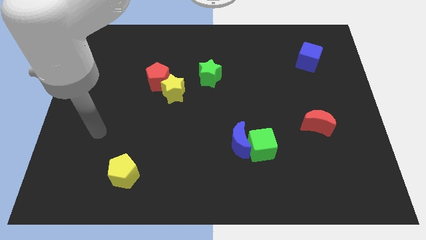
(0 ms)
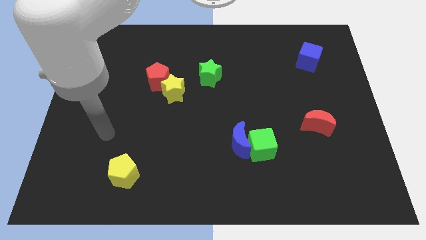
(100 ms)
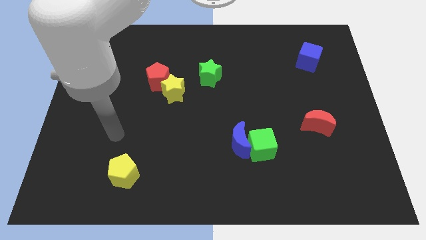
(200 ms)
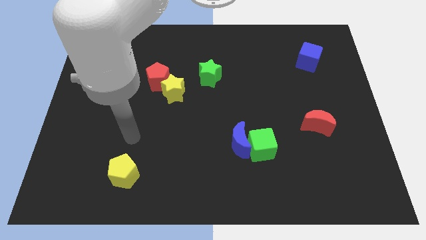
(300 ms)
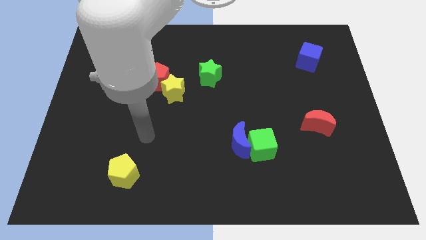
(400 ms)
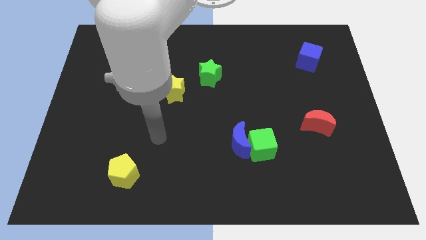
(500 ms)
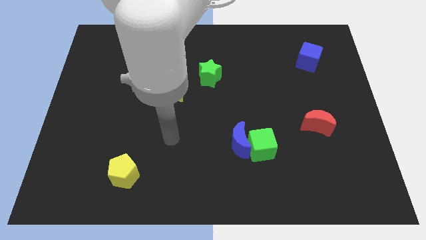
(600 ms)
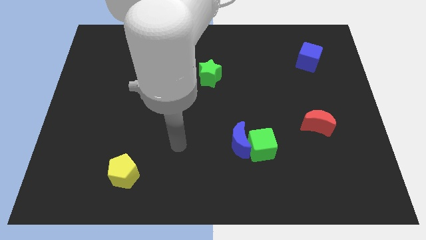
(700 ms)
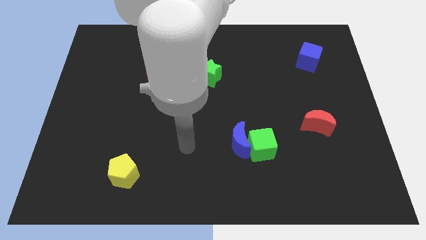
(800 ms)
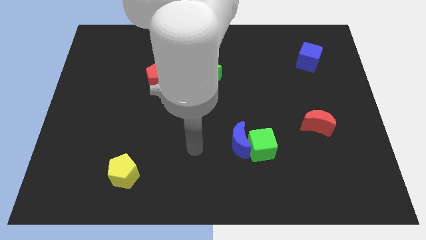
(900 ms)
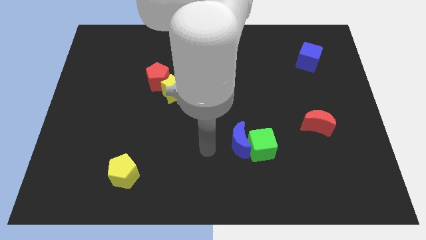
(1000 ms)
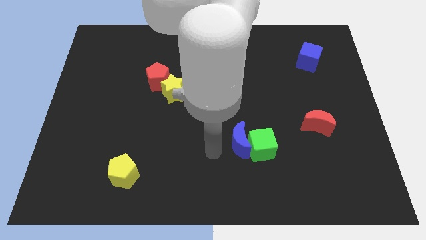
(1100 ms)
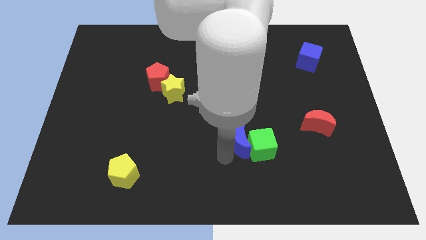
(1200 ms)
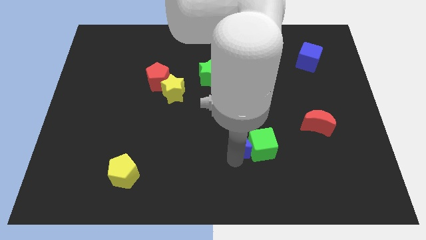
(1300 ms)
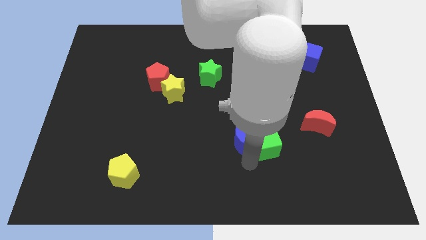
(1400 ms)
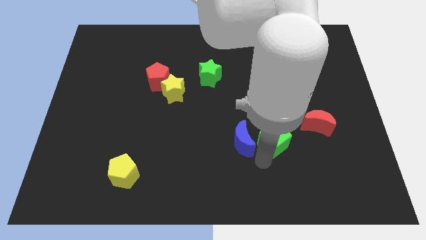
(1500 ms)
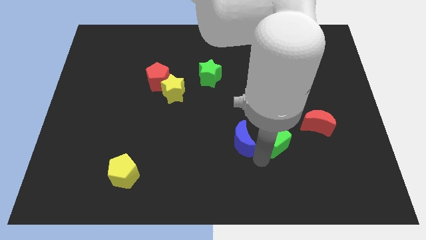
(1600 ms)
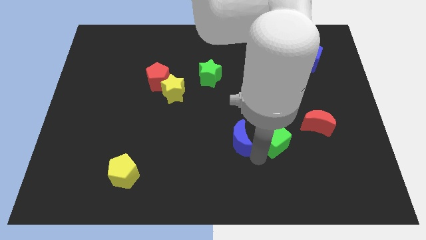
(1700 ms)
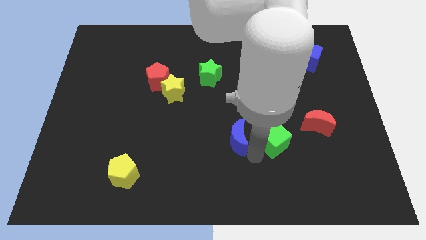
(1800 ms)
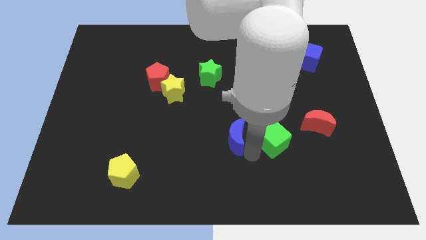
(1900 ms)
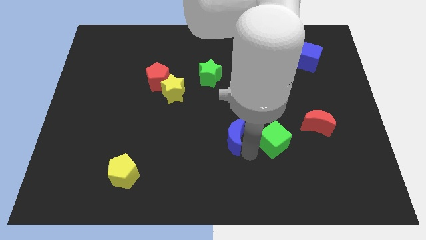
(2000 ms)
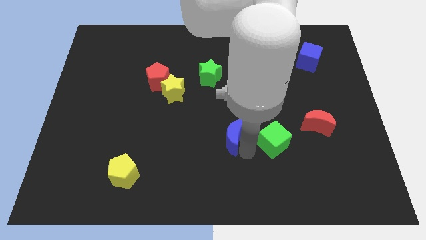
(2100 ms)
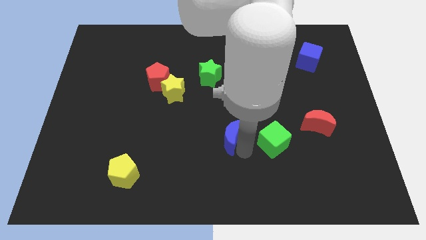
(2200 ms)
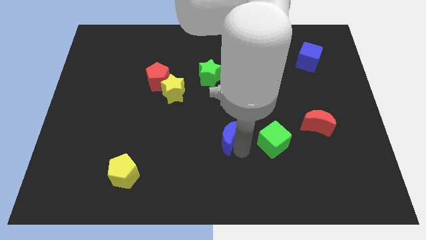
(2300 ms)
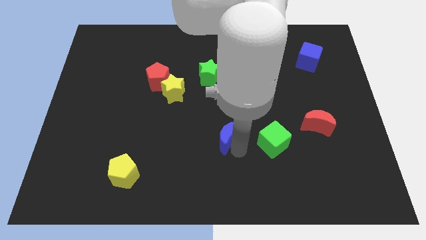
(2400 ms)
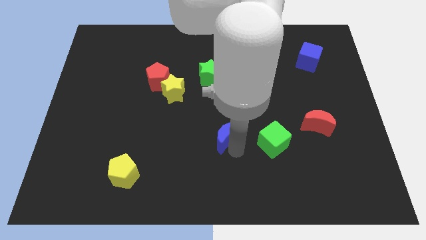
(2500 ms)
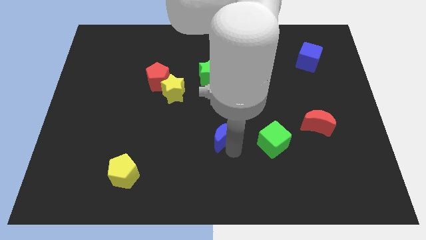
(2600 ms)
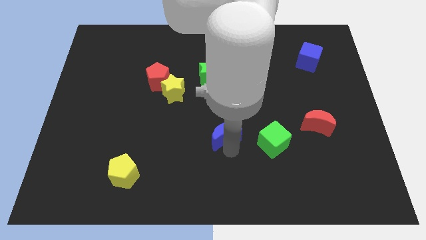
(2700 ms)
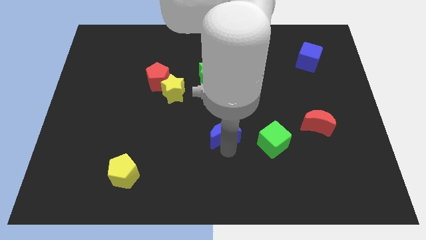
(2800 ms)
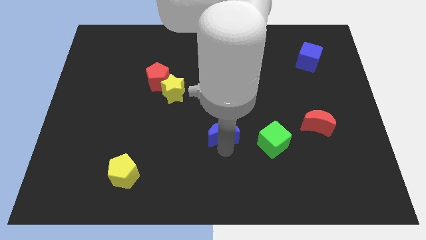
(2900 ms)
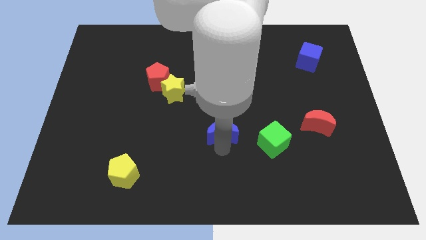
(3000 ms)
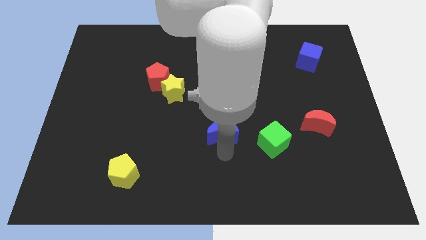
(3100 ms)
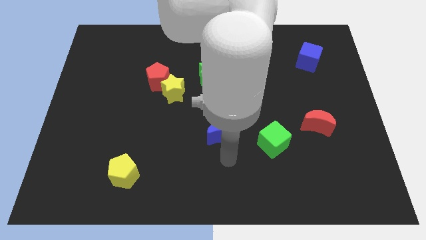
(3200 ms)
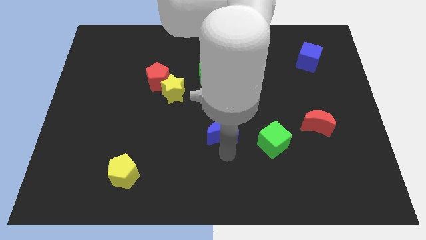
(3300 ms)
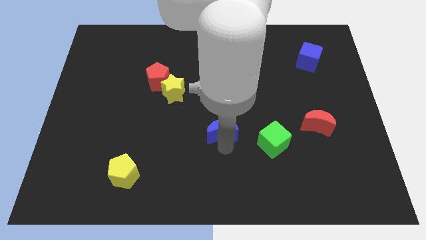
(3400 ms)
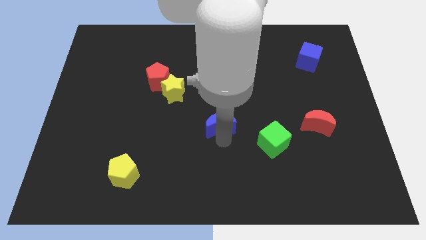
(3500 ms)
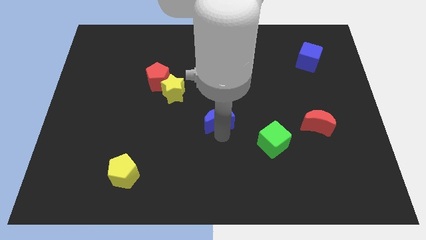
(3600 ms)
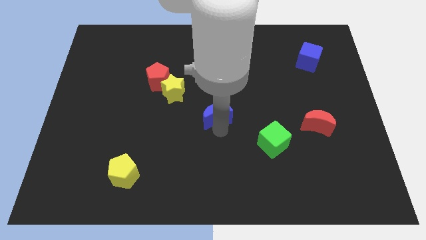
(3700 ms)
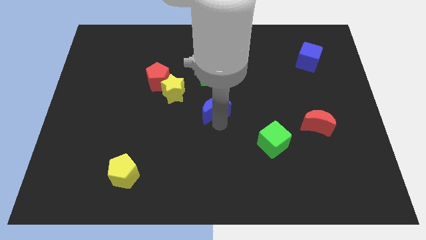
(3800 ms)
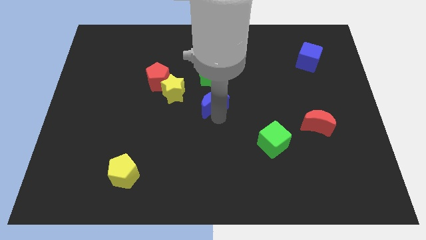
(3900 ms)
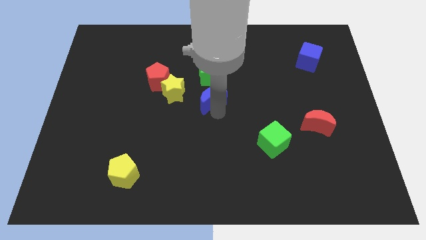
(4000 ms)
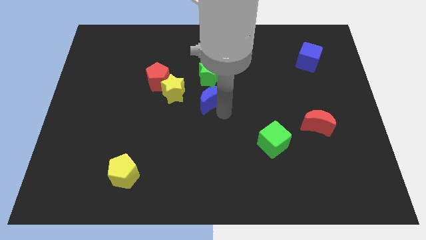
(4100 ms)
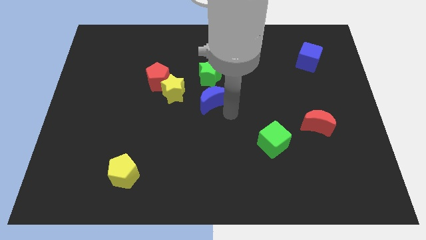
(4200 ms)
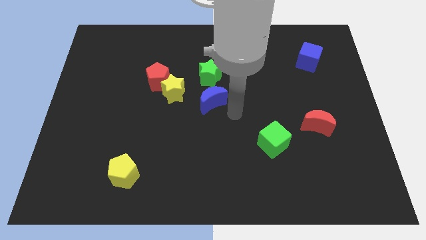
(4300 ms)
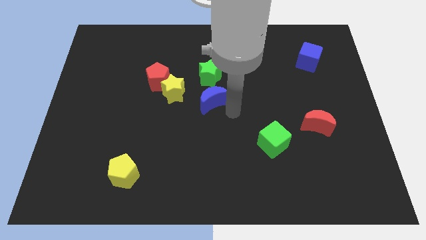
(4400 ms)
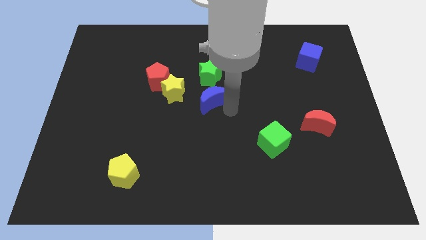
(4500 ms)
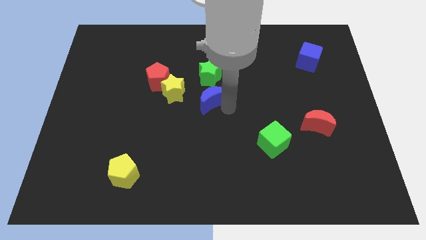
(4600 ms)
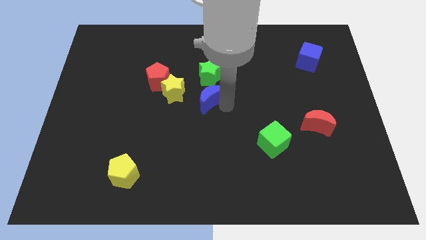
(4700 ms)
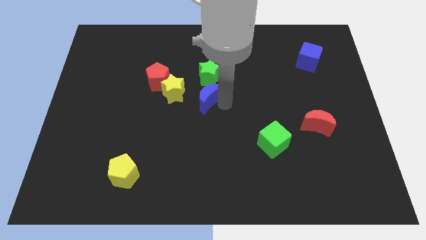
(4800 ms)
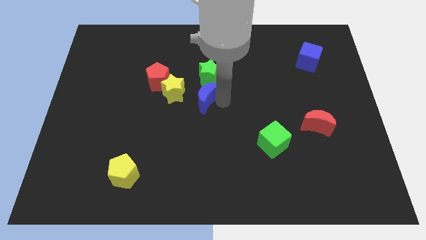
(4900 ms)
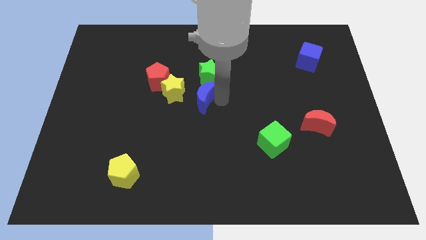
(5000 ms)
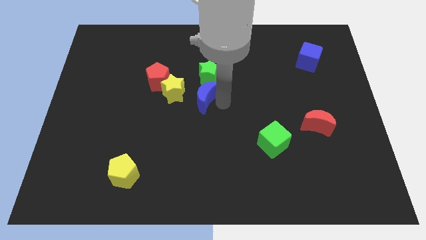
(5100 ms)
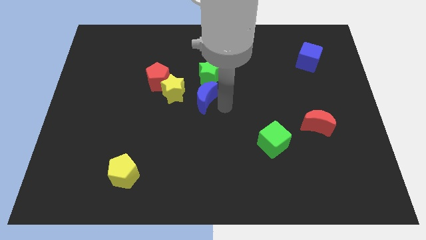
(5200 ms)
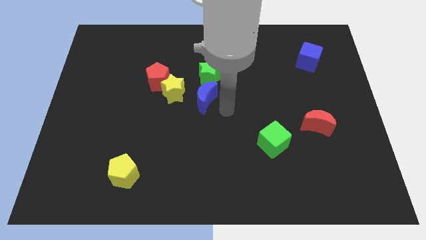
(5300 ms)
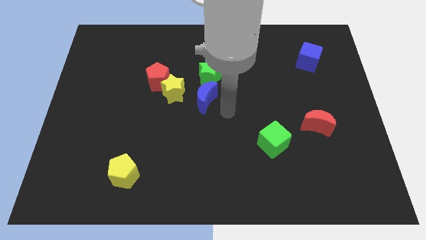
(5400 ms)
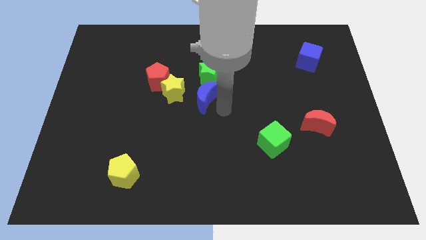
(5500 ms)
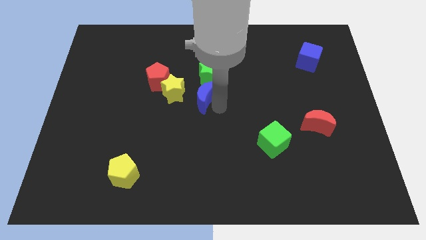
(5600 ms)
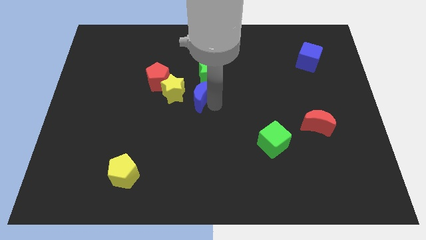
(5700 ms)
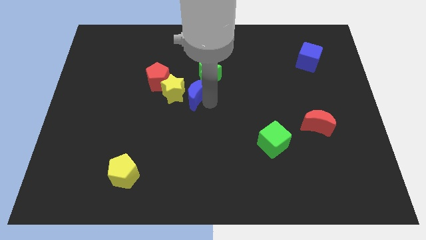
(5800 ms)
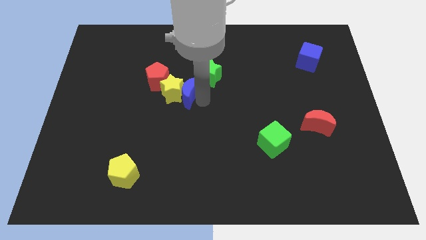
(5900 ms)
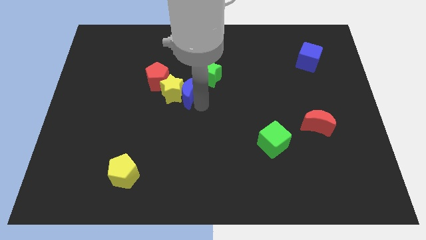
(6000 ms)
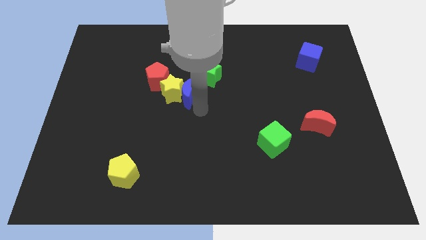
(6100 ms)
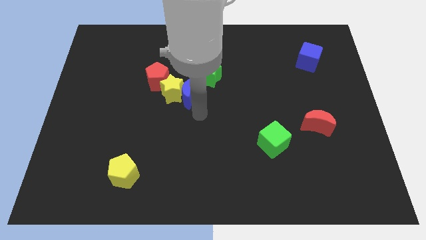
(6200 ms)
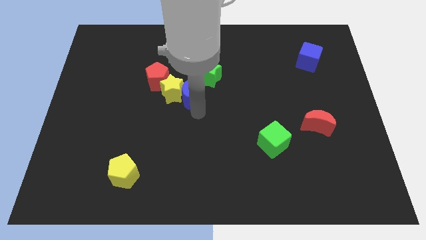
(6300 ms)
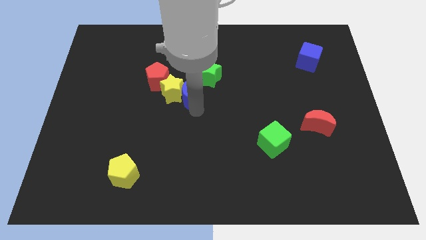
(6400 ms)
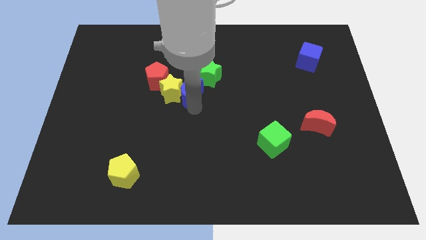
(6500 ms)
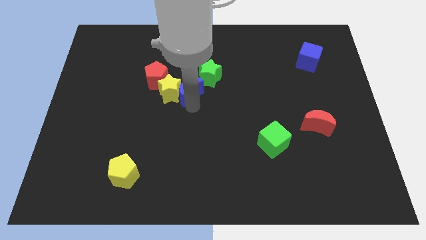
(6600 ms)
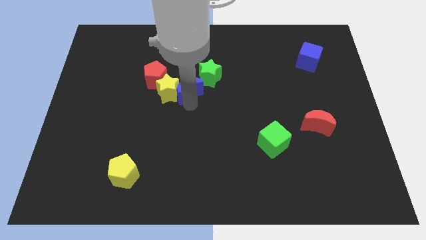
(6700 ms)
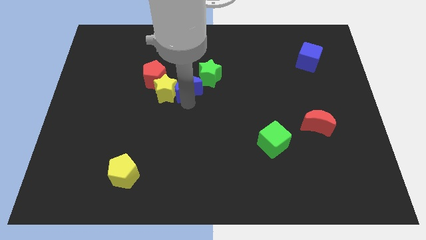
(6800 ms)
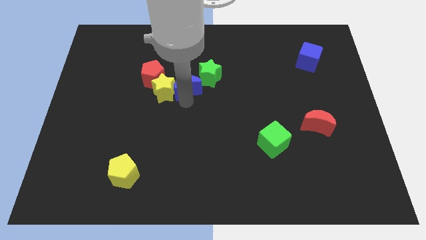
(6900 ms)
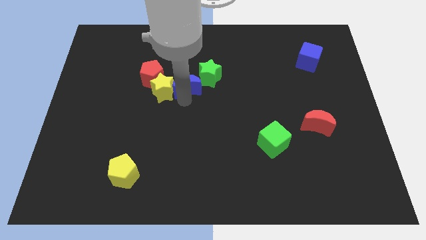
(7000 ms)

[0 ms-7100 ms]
move the blue moon up and then left

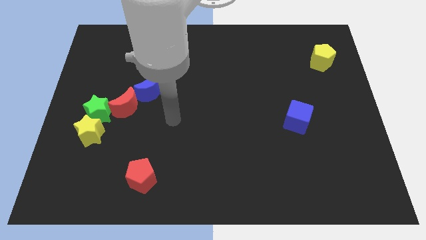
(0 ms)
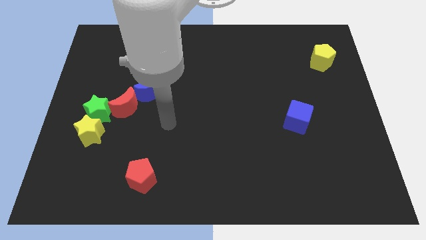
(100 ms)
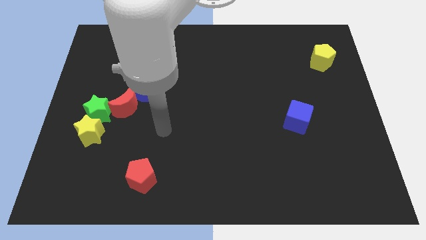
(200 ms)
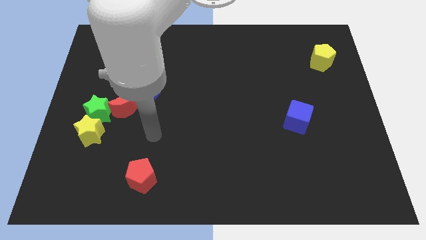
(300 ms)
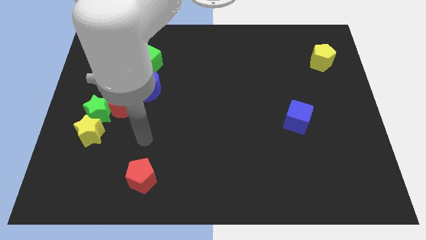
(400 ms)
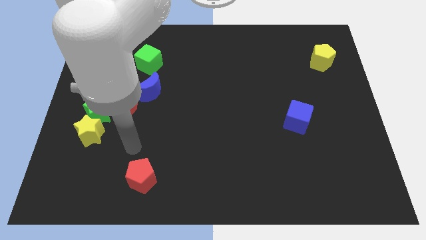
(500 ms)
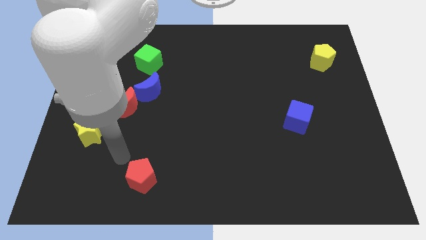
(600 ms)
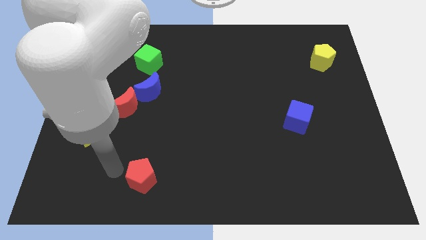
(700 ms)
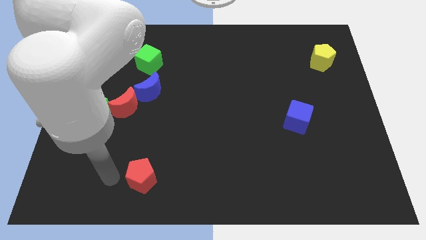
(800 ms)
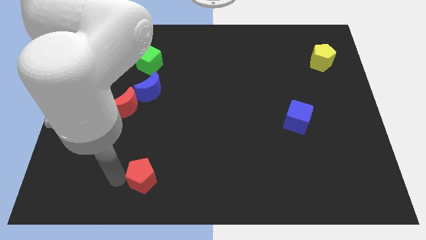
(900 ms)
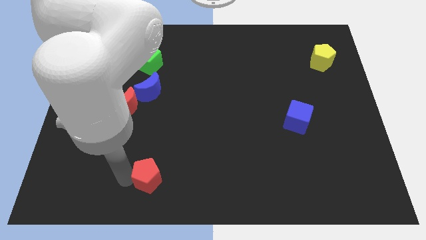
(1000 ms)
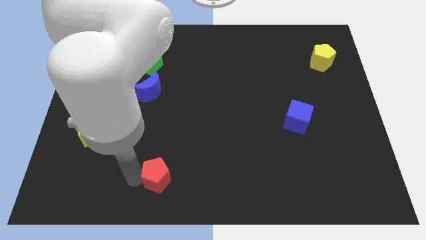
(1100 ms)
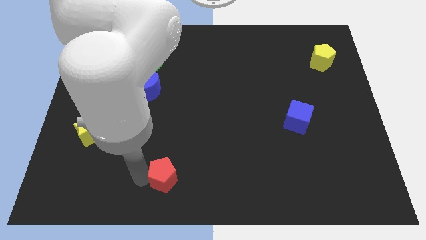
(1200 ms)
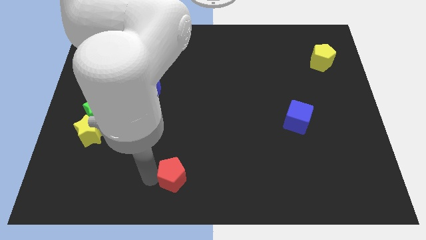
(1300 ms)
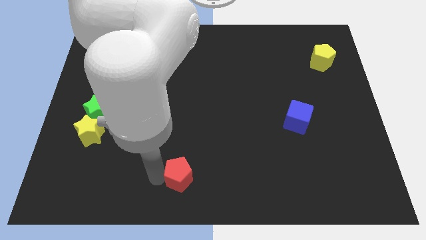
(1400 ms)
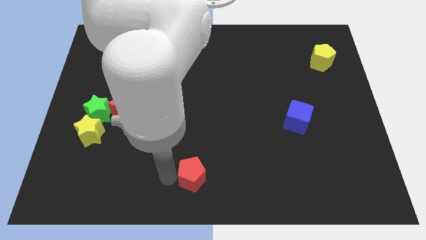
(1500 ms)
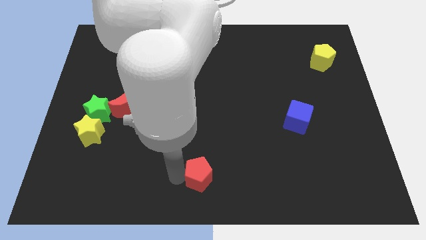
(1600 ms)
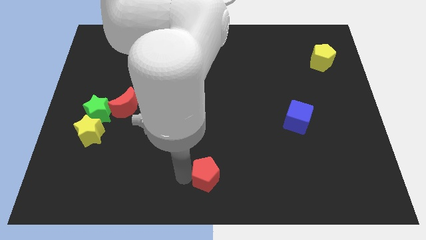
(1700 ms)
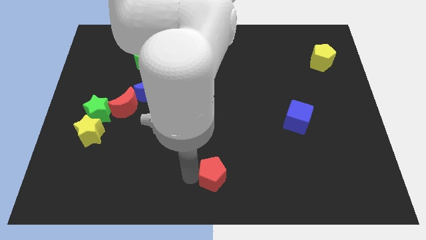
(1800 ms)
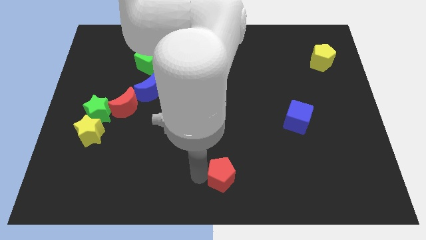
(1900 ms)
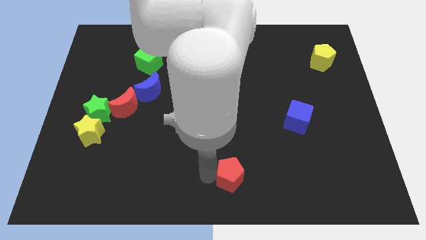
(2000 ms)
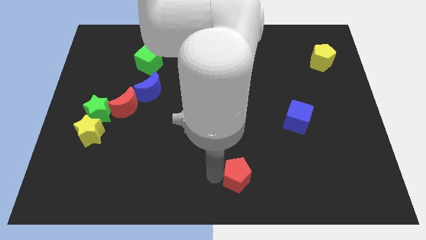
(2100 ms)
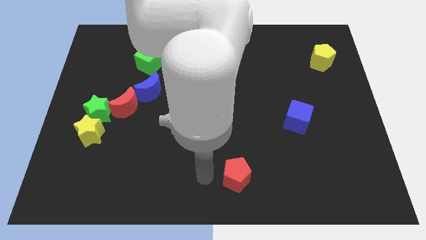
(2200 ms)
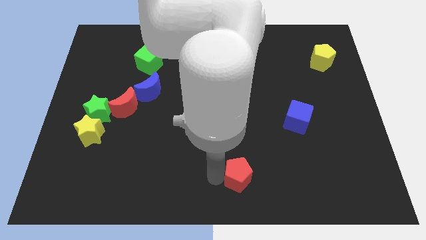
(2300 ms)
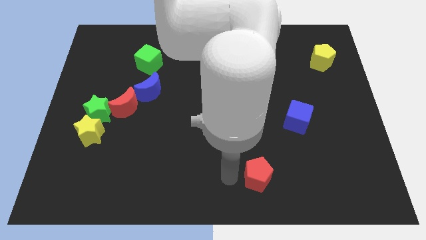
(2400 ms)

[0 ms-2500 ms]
push the red pentagon to the right
